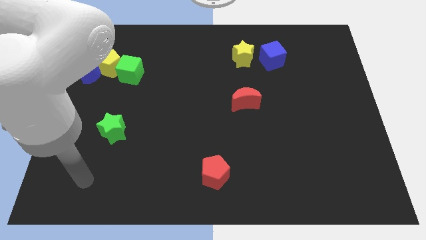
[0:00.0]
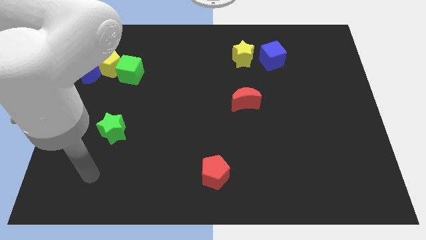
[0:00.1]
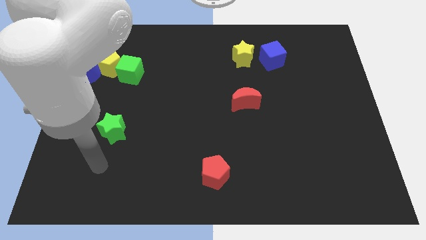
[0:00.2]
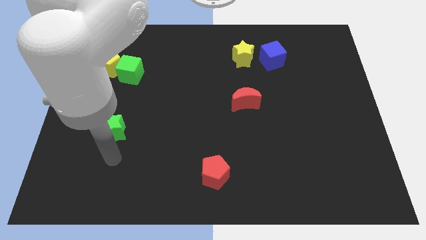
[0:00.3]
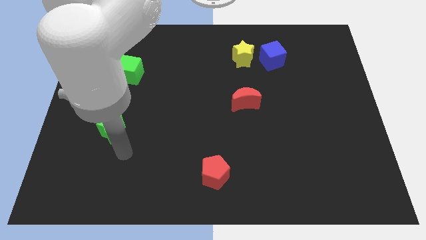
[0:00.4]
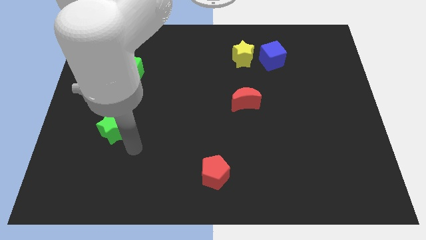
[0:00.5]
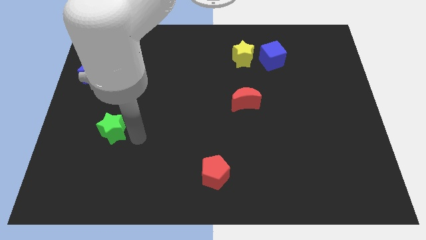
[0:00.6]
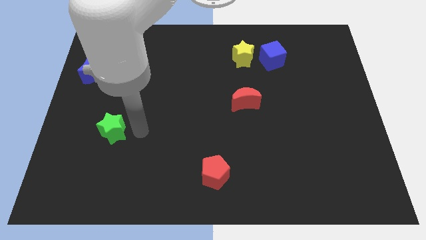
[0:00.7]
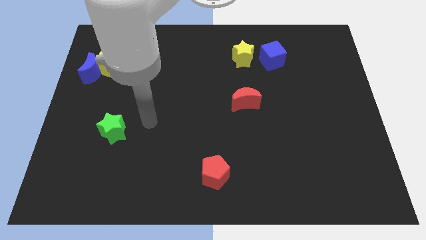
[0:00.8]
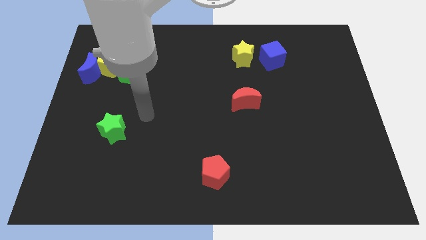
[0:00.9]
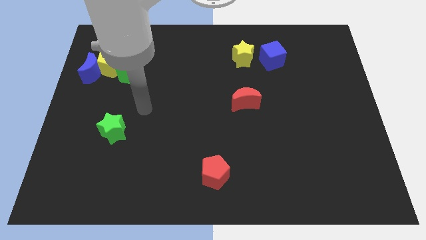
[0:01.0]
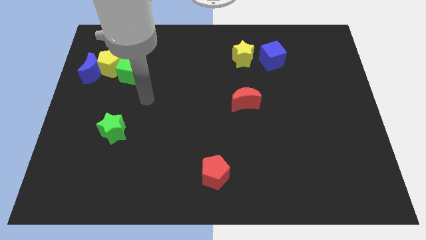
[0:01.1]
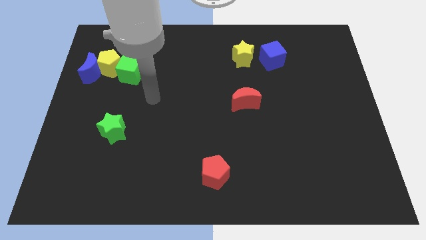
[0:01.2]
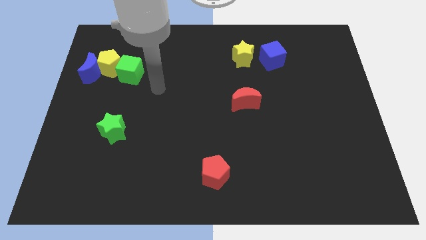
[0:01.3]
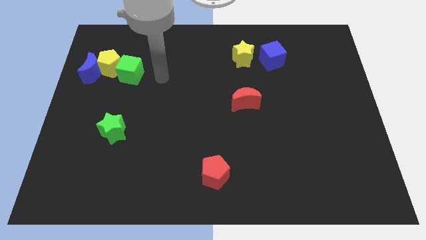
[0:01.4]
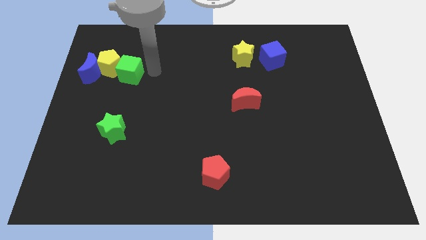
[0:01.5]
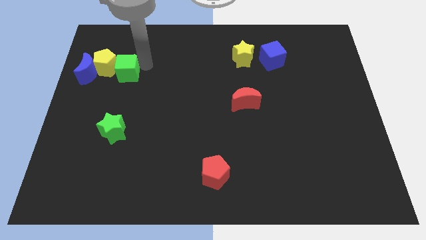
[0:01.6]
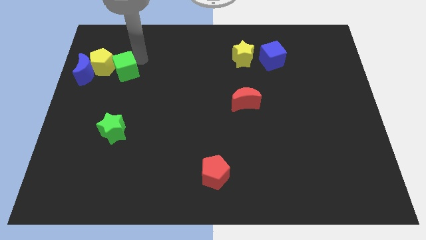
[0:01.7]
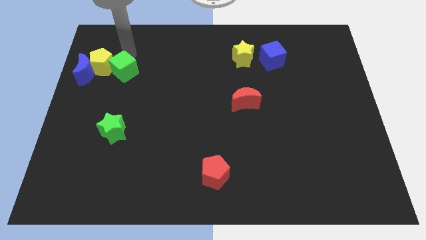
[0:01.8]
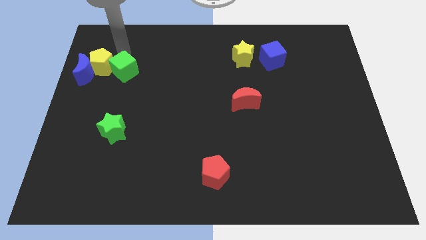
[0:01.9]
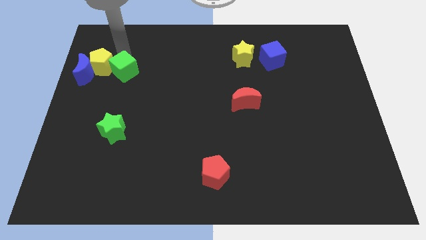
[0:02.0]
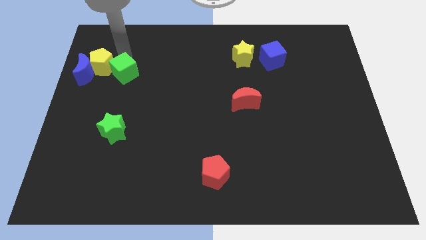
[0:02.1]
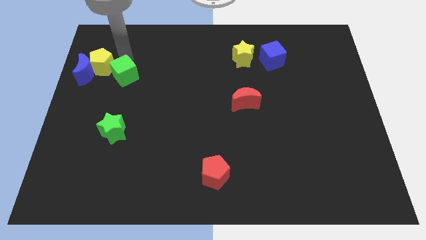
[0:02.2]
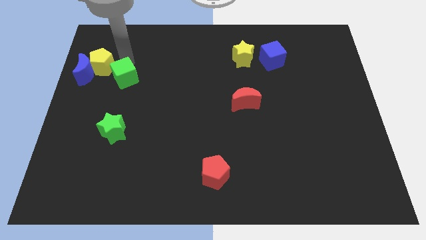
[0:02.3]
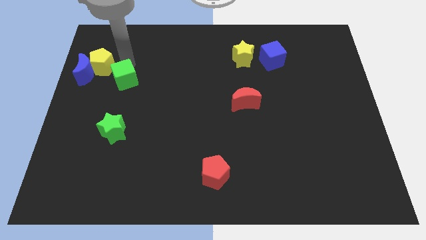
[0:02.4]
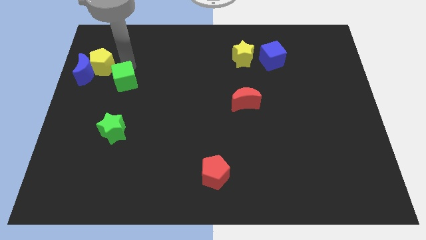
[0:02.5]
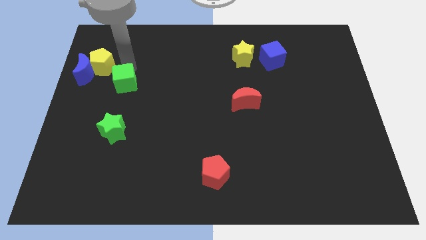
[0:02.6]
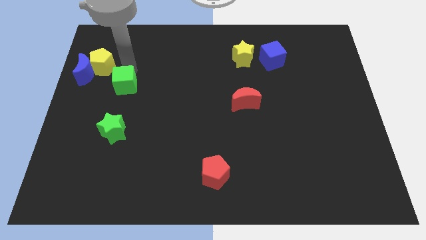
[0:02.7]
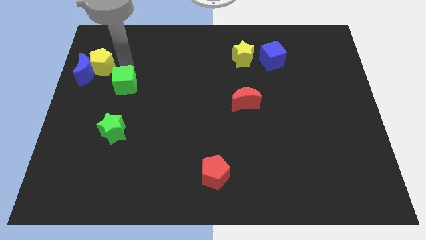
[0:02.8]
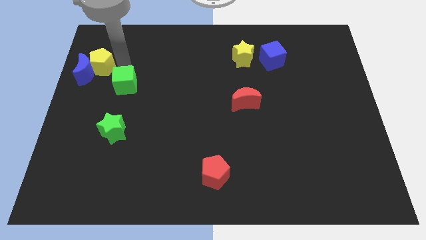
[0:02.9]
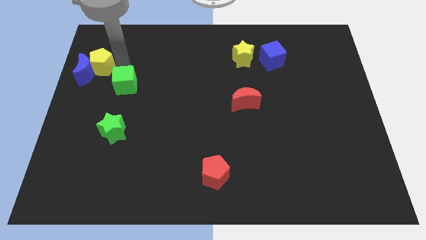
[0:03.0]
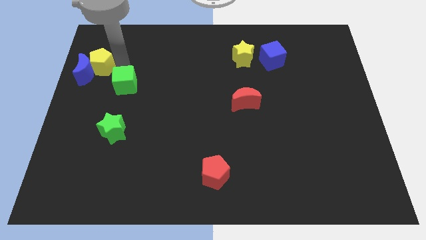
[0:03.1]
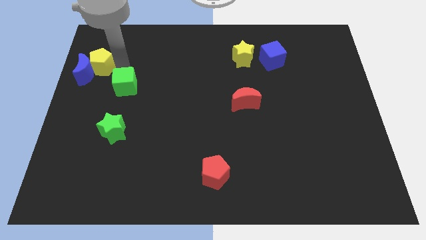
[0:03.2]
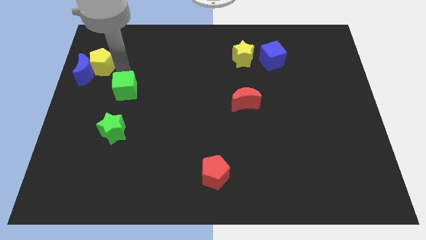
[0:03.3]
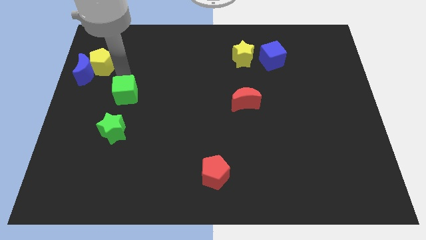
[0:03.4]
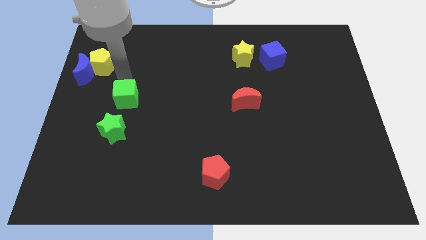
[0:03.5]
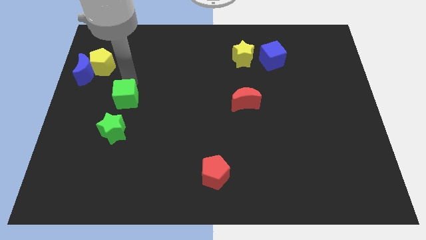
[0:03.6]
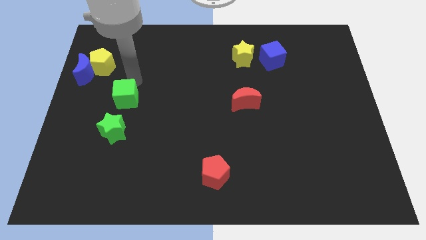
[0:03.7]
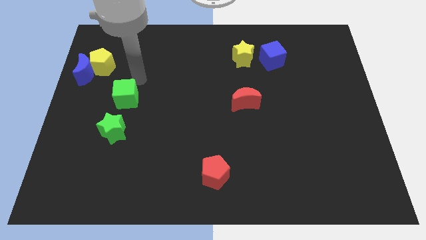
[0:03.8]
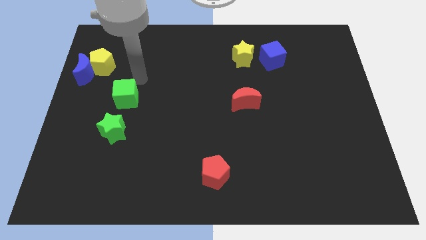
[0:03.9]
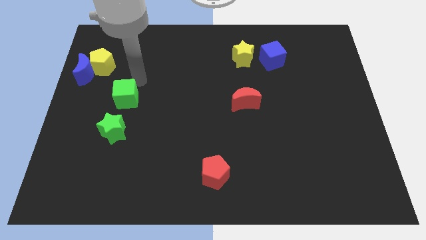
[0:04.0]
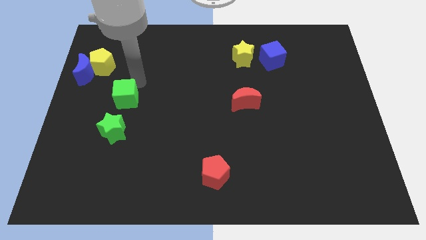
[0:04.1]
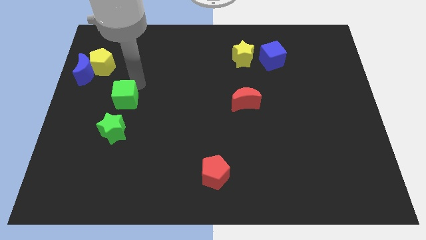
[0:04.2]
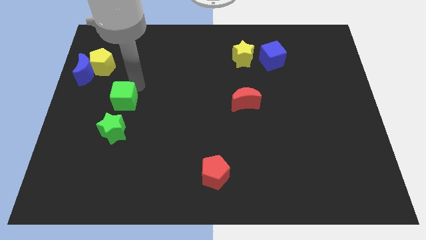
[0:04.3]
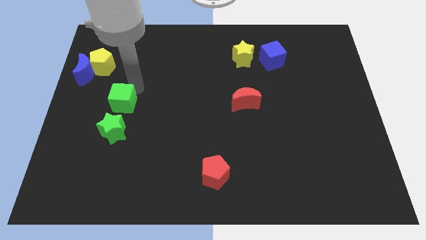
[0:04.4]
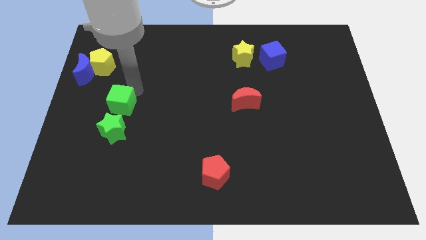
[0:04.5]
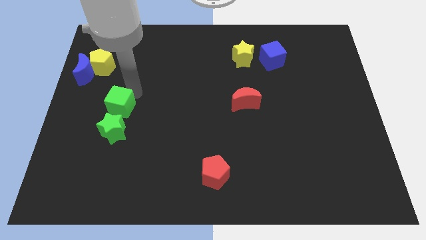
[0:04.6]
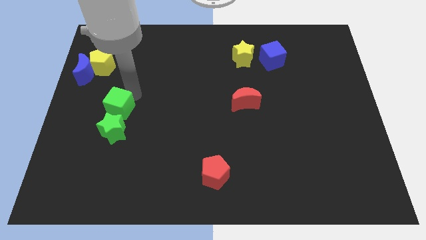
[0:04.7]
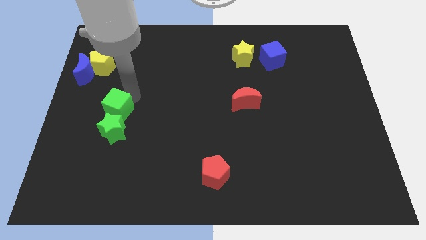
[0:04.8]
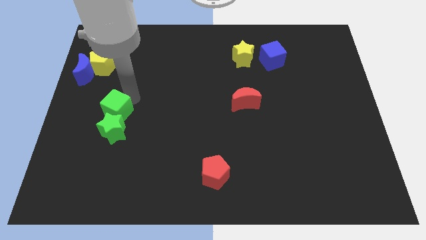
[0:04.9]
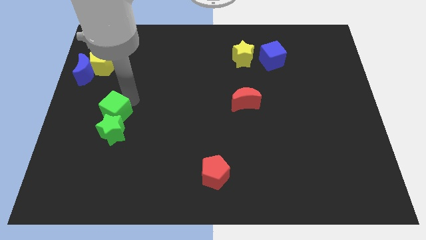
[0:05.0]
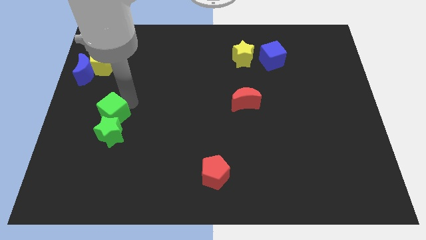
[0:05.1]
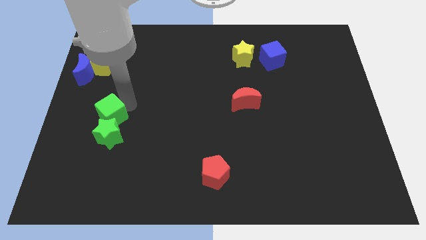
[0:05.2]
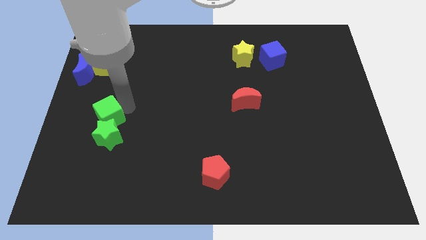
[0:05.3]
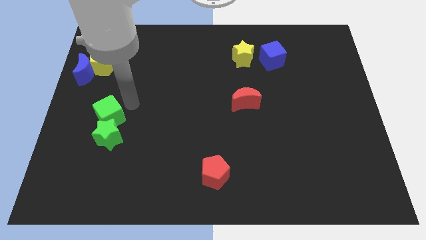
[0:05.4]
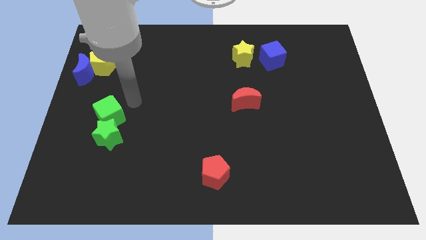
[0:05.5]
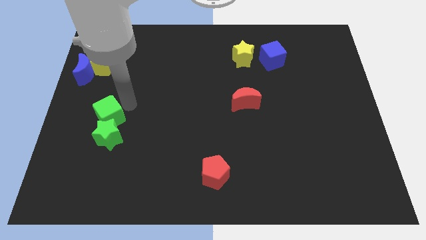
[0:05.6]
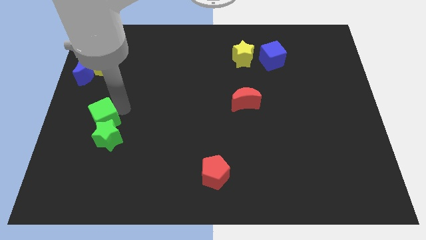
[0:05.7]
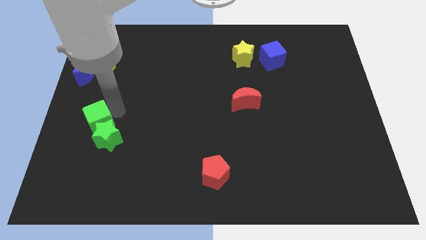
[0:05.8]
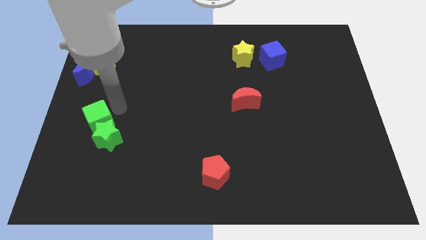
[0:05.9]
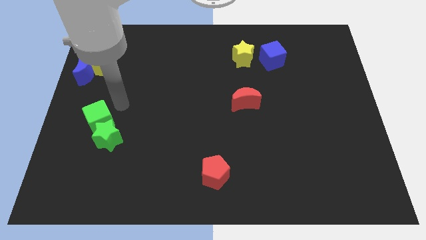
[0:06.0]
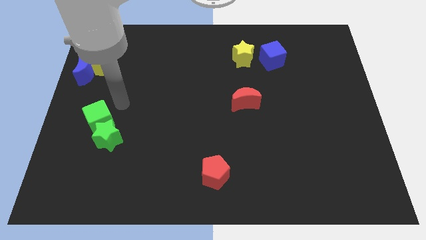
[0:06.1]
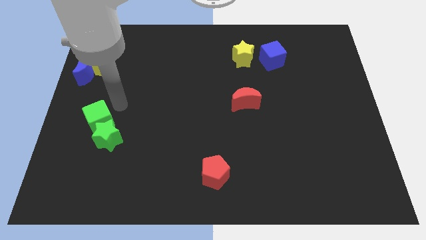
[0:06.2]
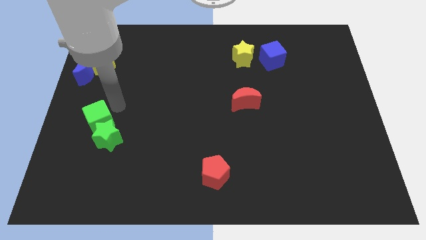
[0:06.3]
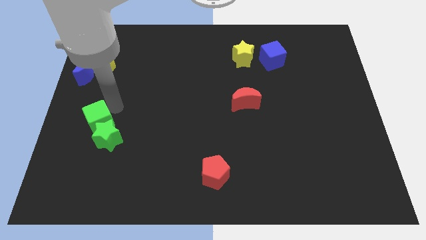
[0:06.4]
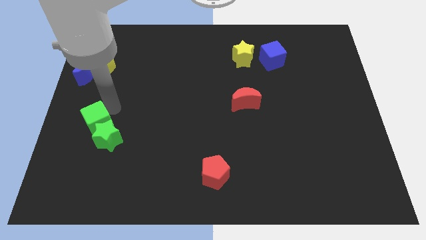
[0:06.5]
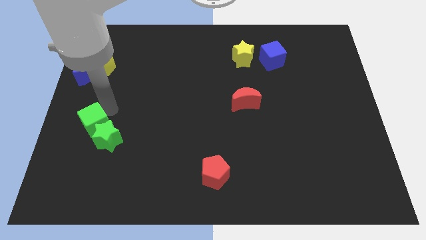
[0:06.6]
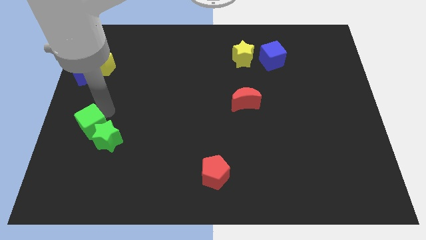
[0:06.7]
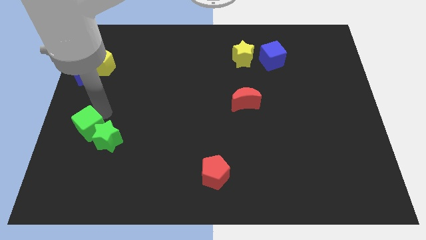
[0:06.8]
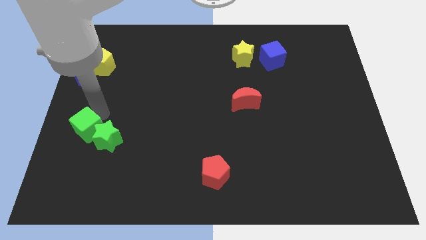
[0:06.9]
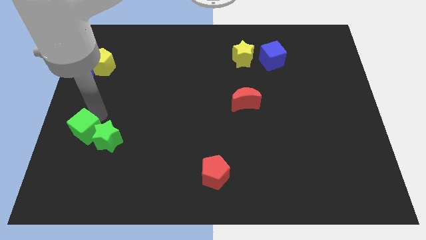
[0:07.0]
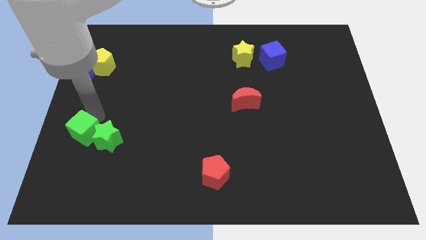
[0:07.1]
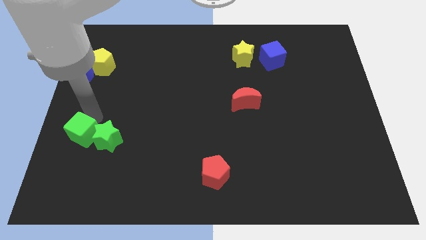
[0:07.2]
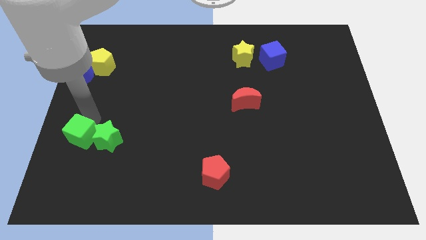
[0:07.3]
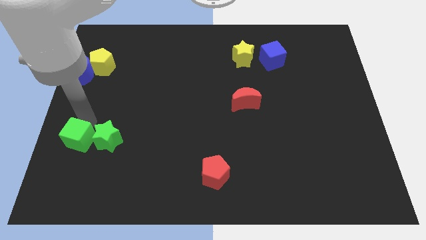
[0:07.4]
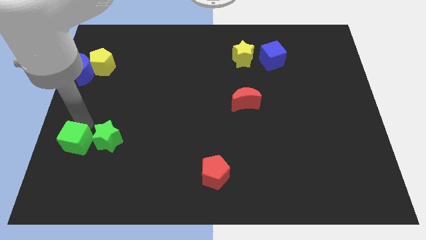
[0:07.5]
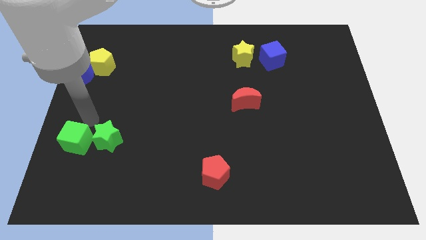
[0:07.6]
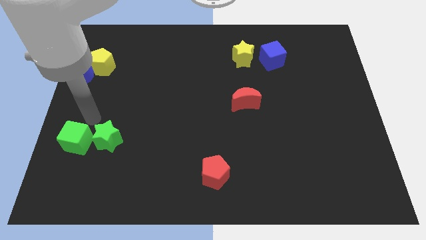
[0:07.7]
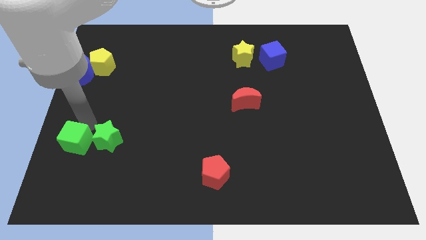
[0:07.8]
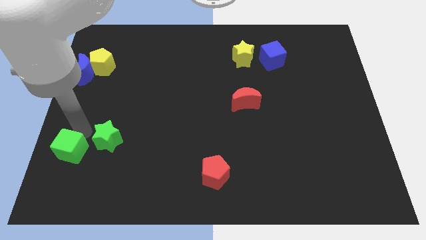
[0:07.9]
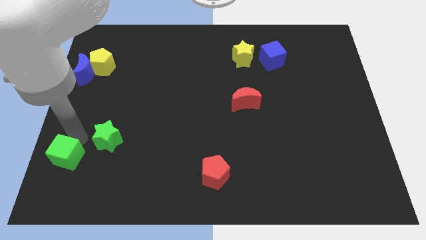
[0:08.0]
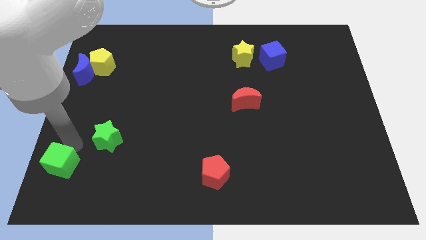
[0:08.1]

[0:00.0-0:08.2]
move the green cube to the bottom left corner
